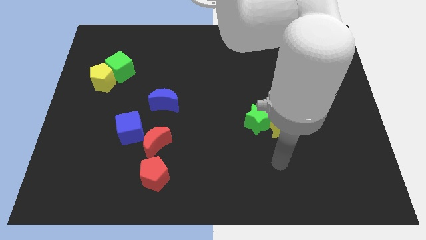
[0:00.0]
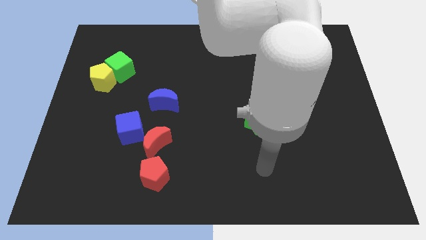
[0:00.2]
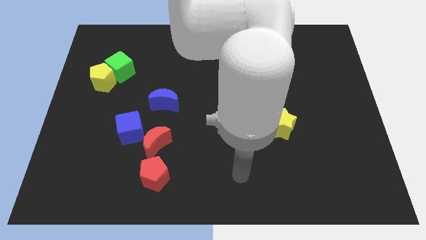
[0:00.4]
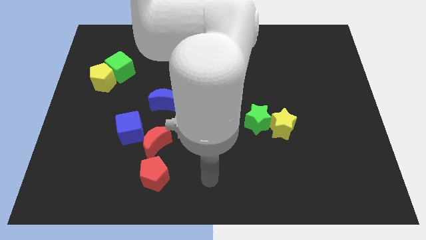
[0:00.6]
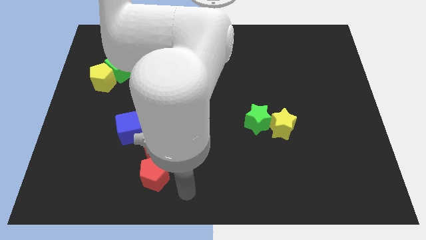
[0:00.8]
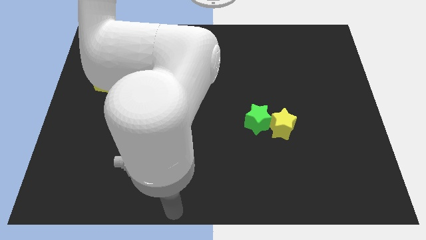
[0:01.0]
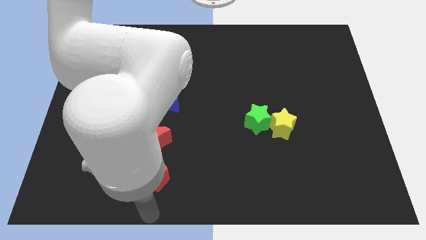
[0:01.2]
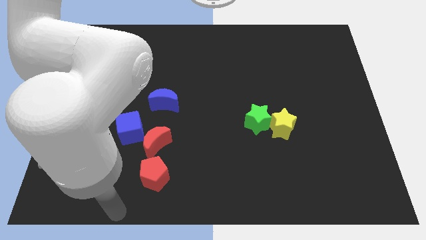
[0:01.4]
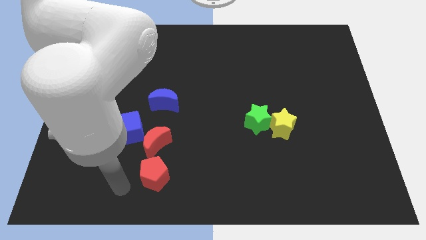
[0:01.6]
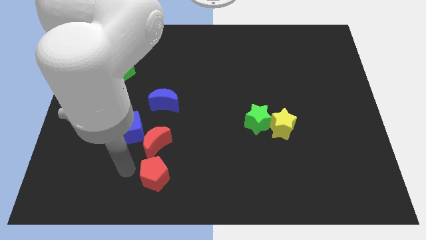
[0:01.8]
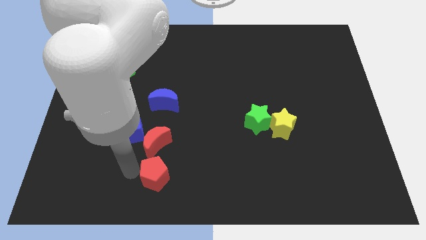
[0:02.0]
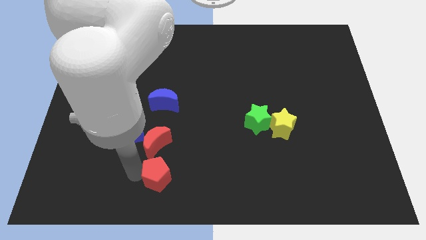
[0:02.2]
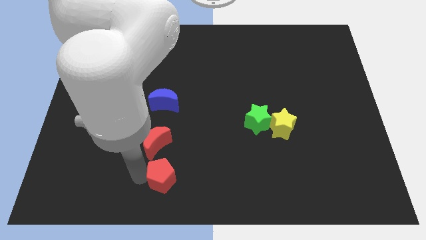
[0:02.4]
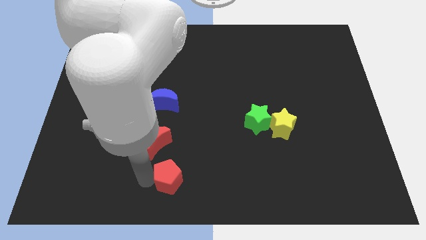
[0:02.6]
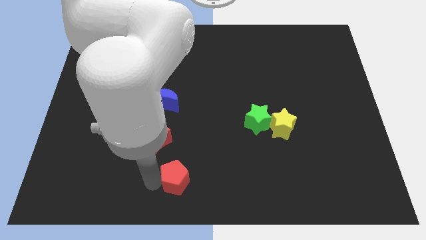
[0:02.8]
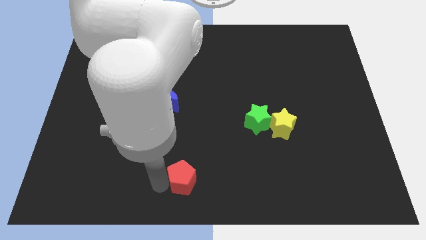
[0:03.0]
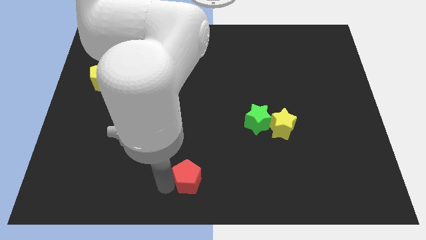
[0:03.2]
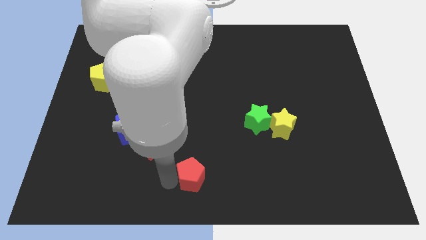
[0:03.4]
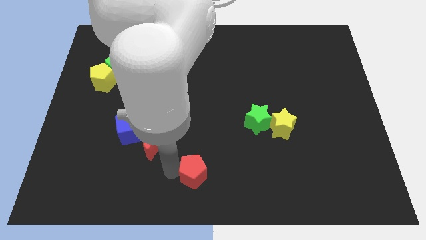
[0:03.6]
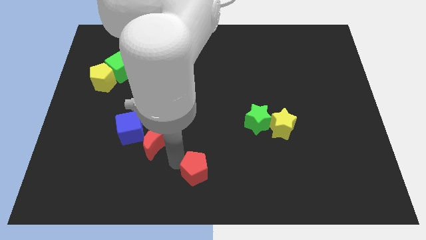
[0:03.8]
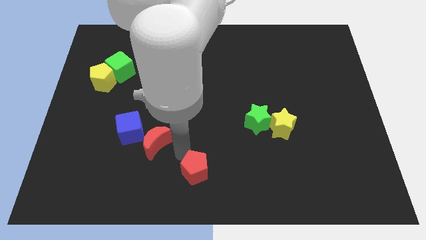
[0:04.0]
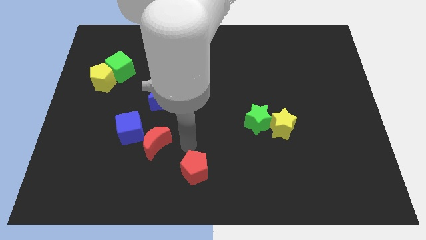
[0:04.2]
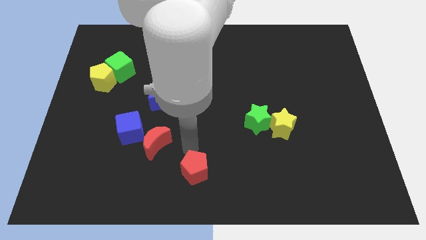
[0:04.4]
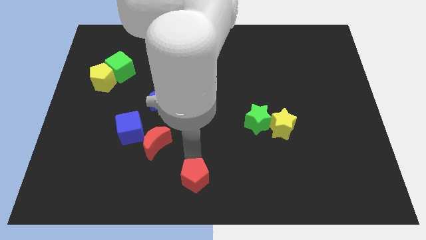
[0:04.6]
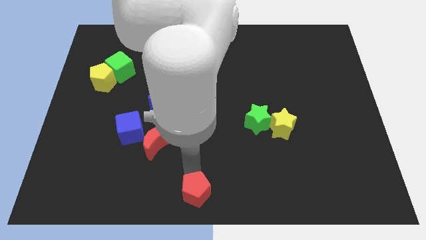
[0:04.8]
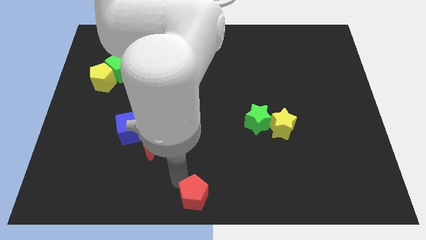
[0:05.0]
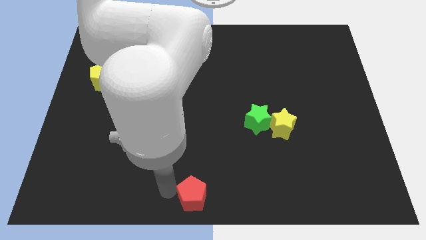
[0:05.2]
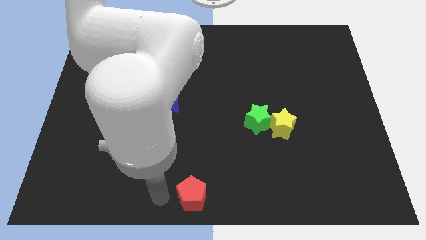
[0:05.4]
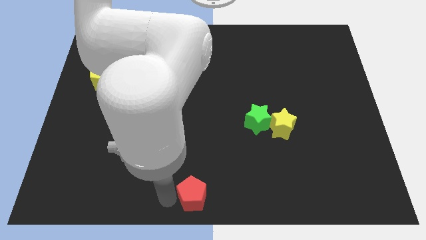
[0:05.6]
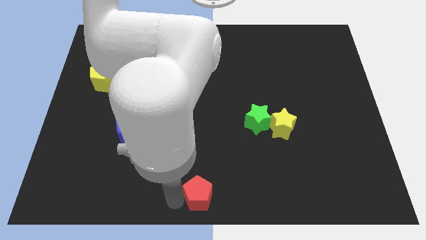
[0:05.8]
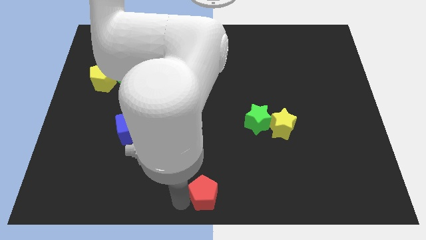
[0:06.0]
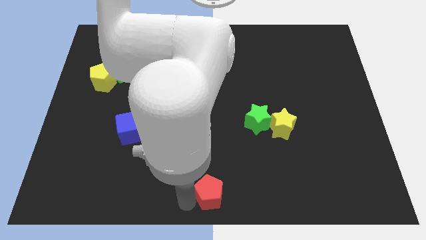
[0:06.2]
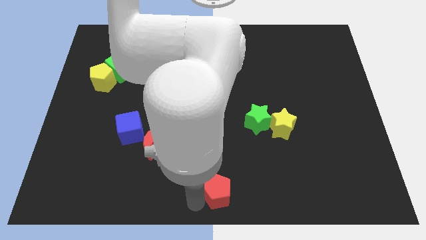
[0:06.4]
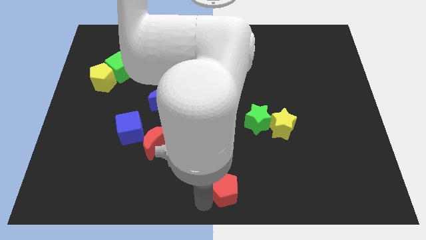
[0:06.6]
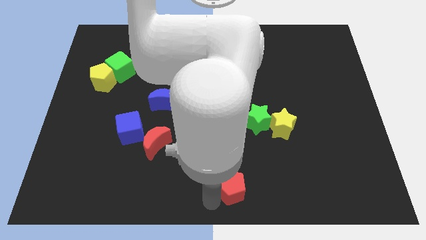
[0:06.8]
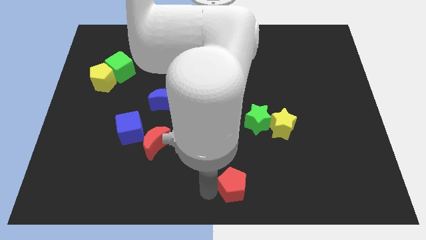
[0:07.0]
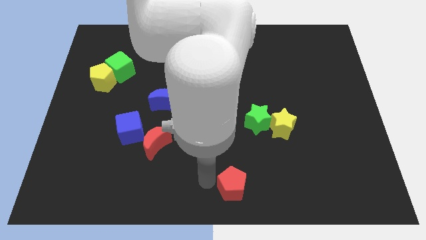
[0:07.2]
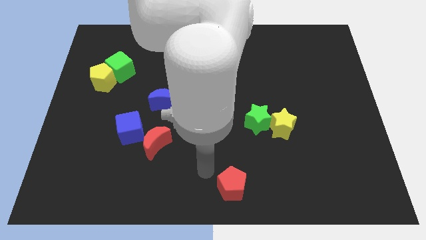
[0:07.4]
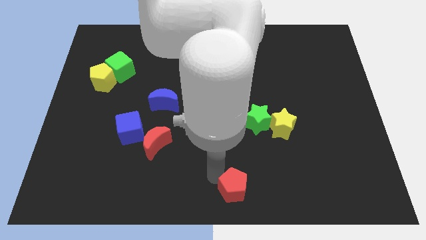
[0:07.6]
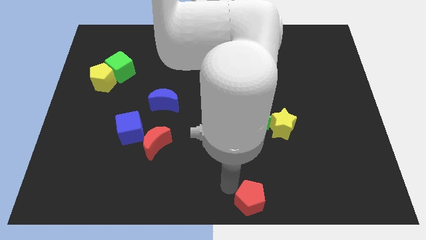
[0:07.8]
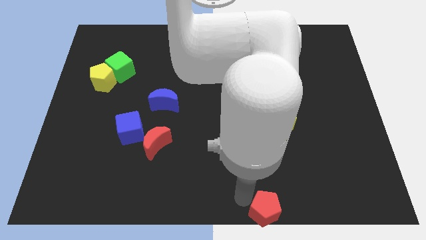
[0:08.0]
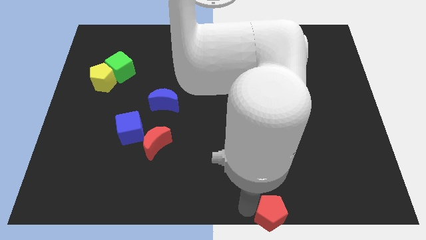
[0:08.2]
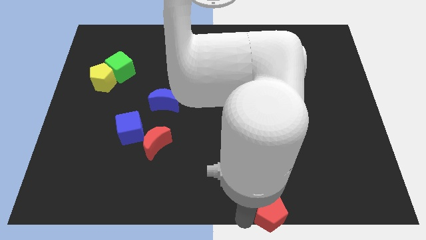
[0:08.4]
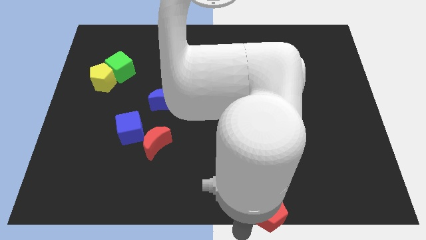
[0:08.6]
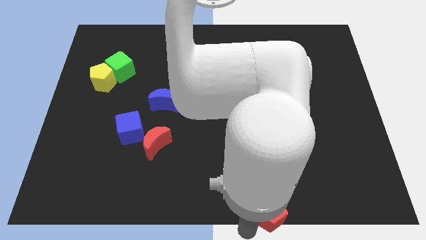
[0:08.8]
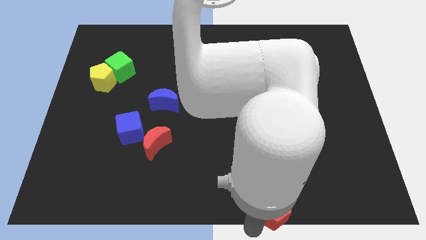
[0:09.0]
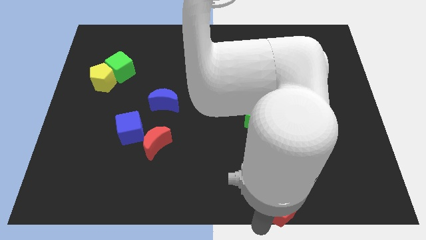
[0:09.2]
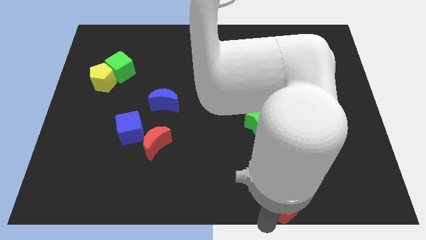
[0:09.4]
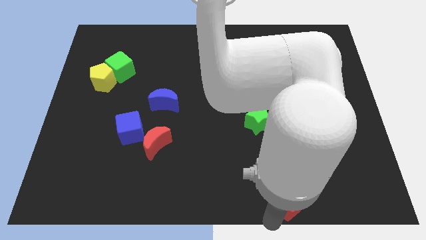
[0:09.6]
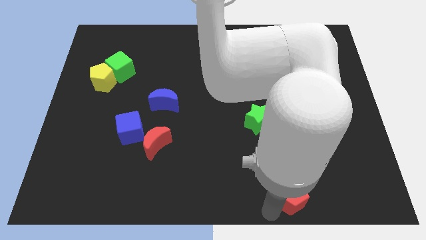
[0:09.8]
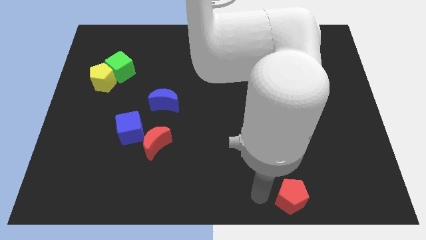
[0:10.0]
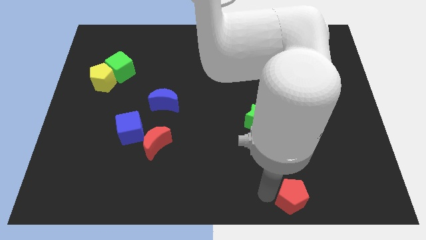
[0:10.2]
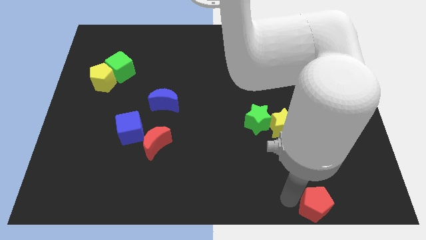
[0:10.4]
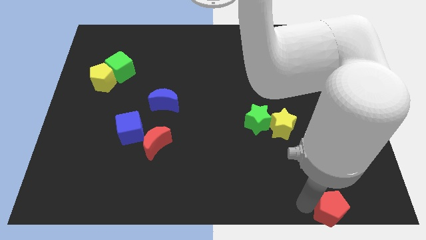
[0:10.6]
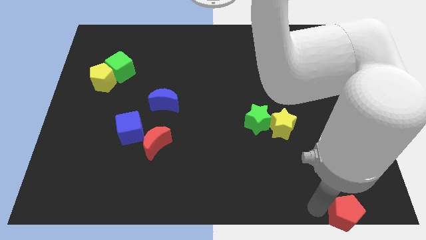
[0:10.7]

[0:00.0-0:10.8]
put the red pentagon to the lower right corner

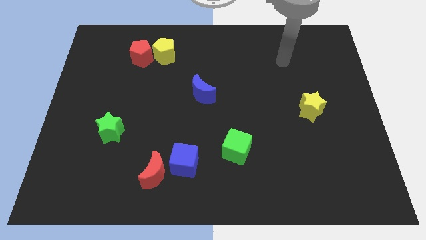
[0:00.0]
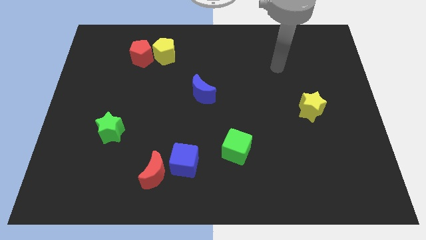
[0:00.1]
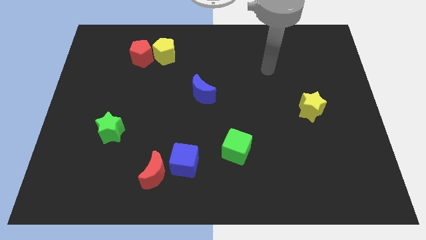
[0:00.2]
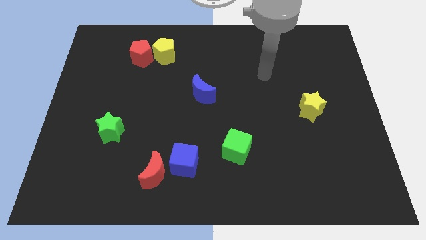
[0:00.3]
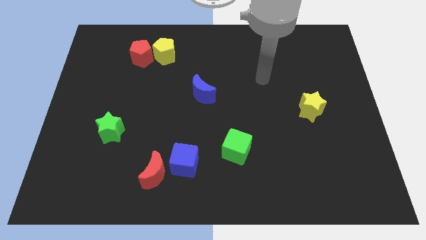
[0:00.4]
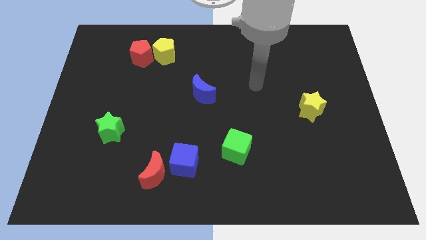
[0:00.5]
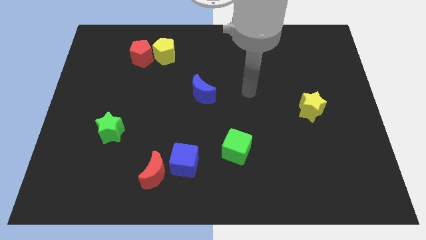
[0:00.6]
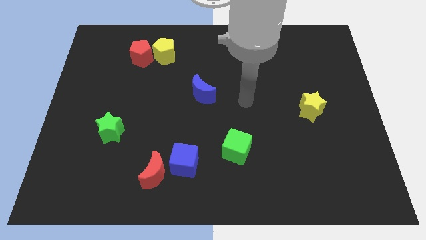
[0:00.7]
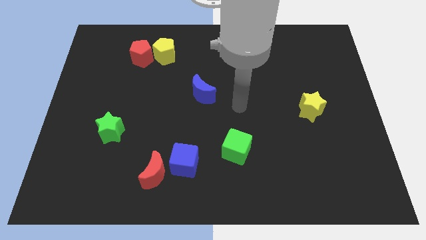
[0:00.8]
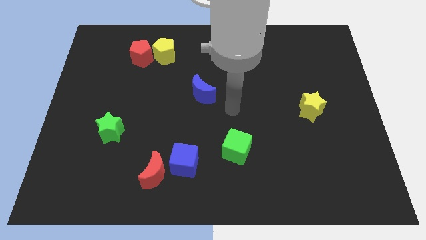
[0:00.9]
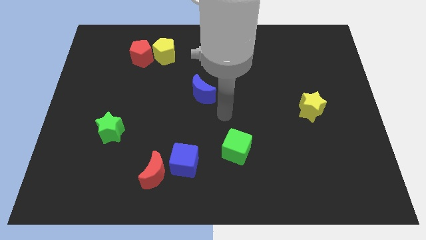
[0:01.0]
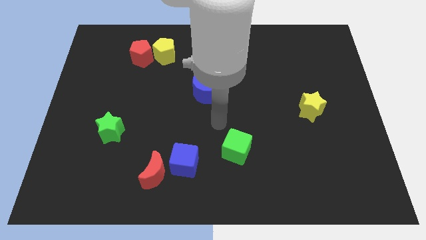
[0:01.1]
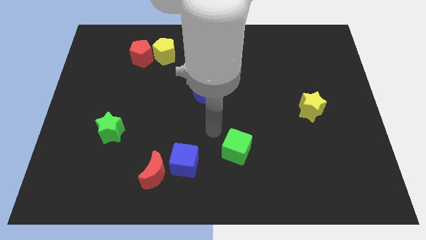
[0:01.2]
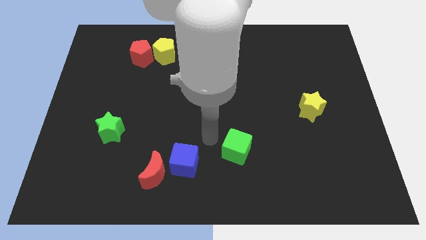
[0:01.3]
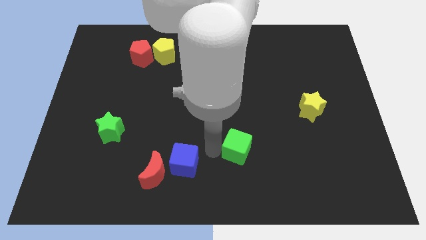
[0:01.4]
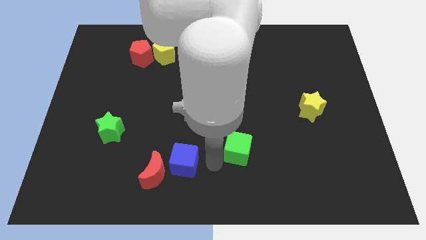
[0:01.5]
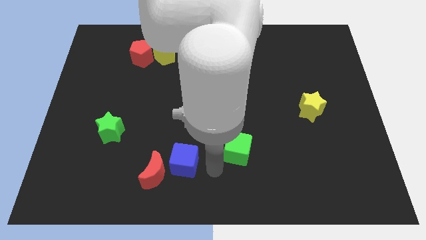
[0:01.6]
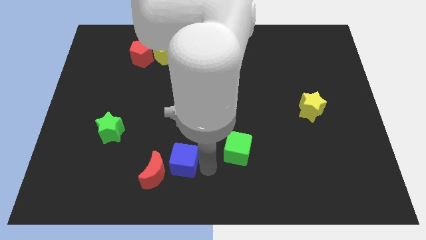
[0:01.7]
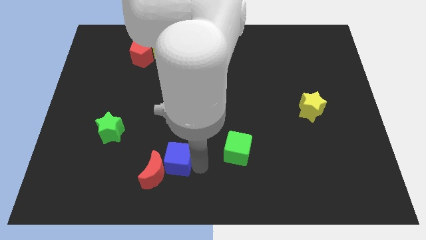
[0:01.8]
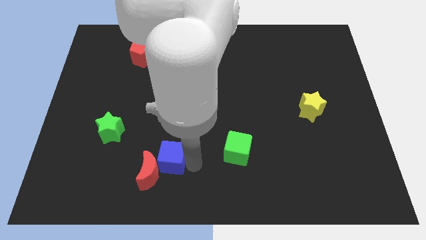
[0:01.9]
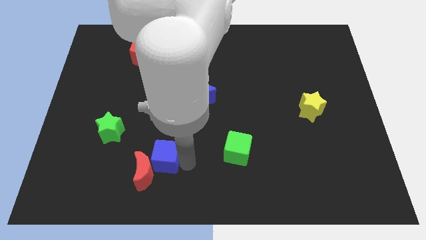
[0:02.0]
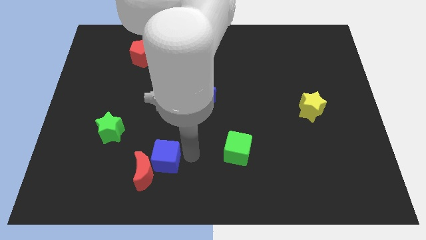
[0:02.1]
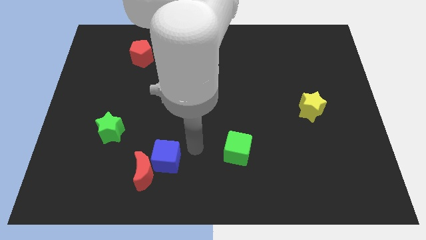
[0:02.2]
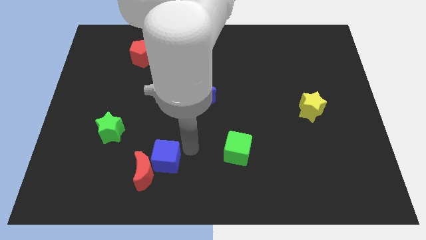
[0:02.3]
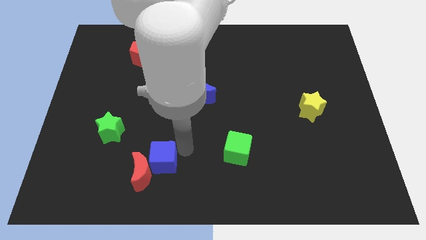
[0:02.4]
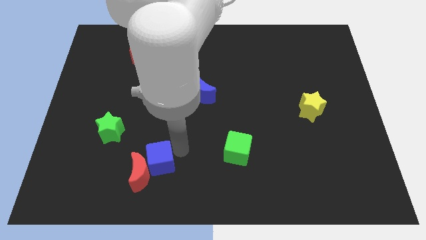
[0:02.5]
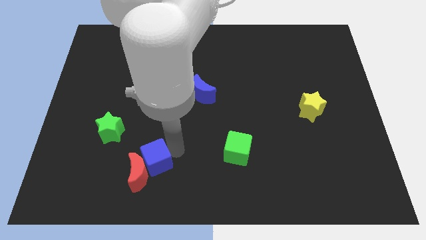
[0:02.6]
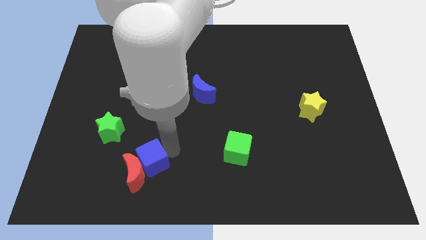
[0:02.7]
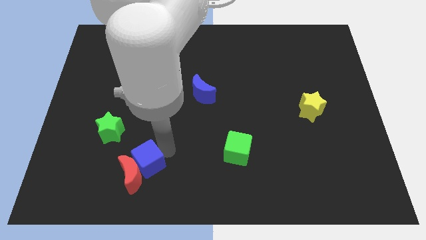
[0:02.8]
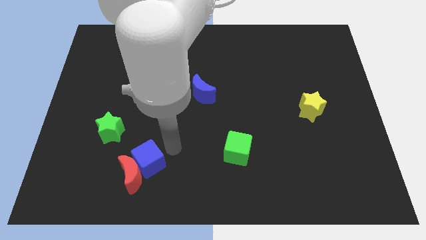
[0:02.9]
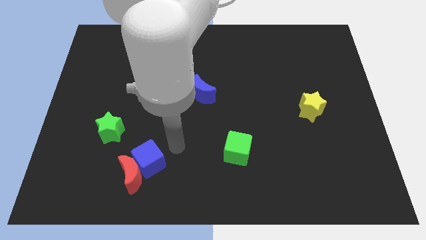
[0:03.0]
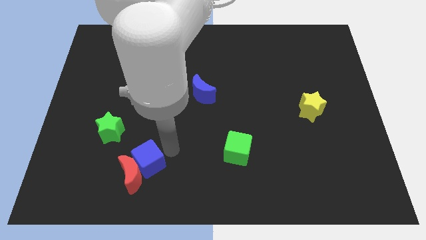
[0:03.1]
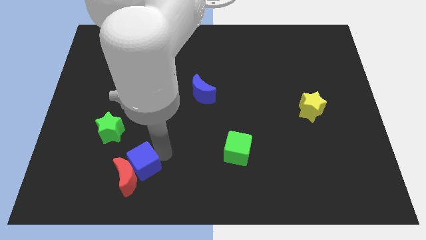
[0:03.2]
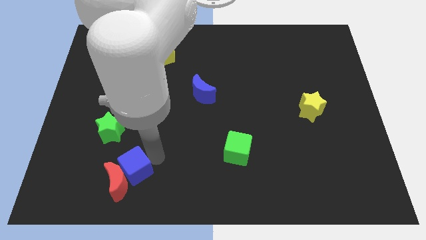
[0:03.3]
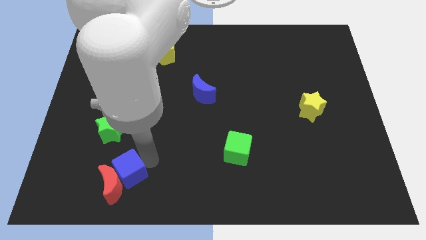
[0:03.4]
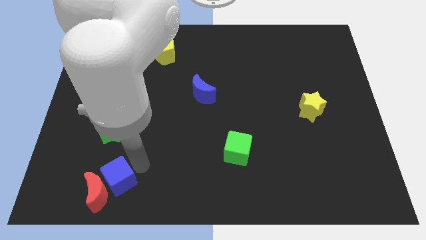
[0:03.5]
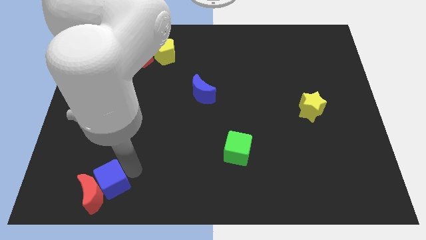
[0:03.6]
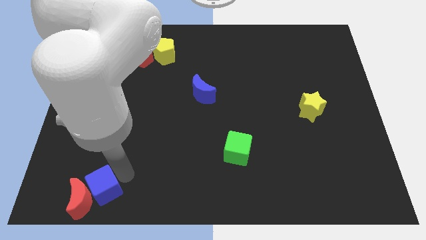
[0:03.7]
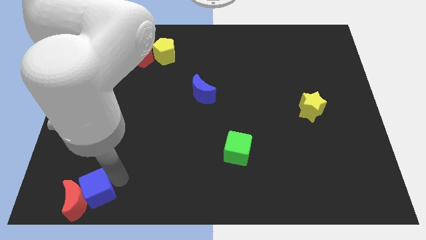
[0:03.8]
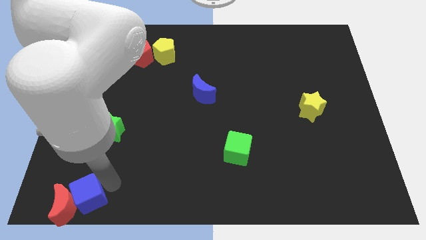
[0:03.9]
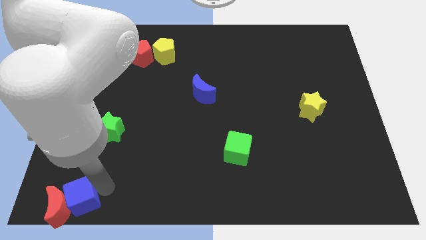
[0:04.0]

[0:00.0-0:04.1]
move the blue cube to the lower left corner
